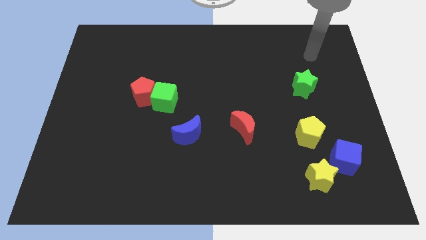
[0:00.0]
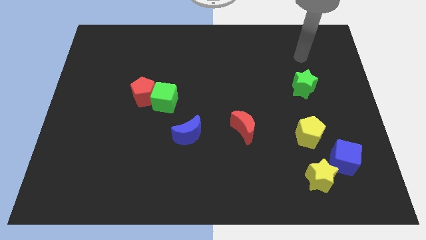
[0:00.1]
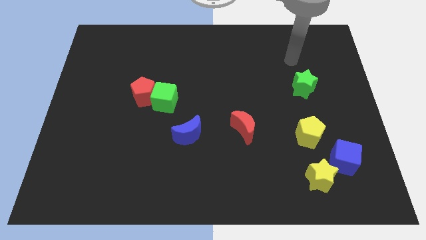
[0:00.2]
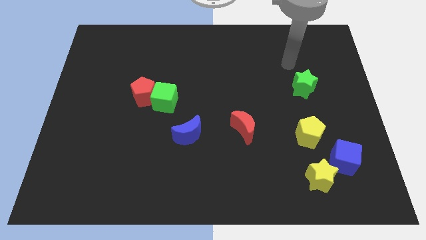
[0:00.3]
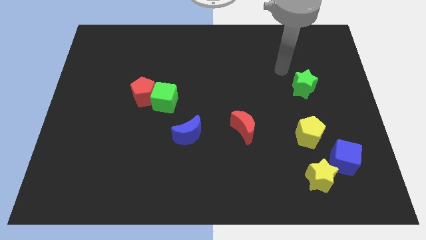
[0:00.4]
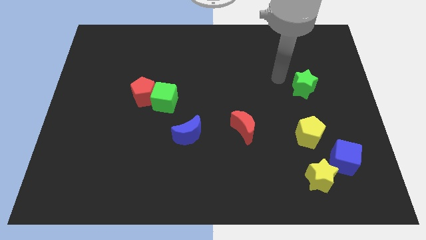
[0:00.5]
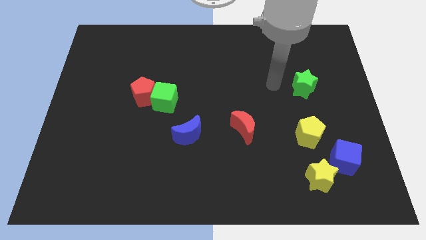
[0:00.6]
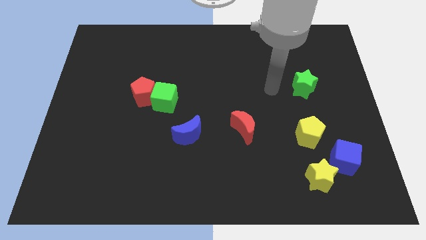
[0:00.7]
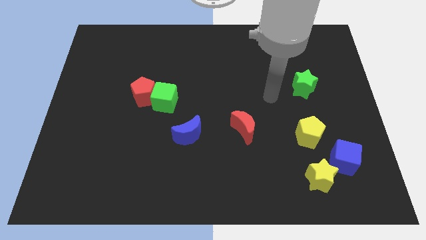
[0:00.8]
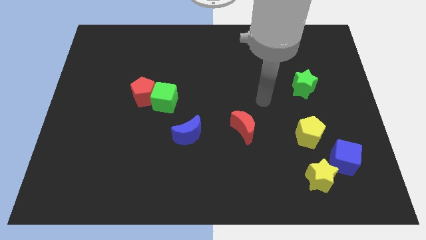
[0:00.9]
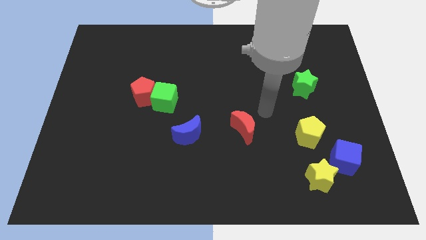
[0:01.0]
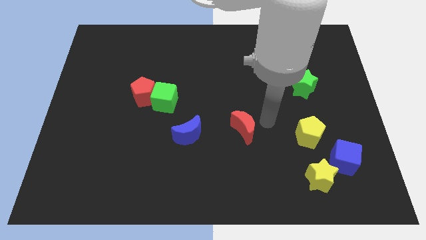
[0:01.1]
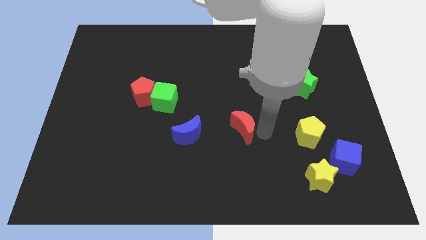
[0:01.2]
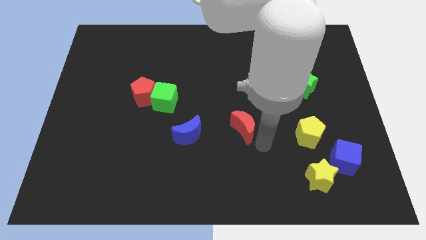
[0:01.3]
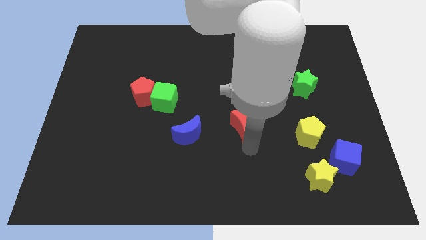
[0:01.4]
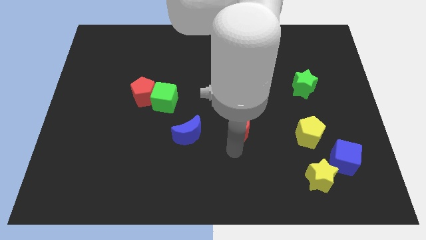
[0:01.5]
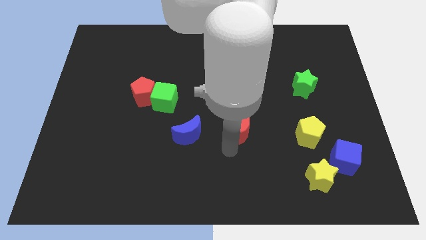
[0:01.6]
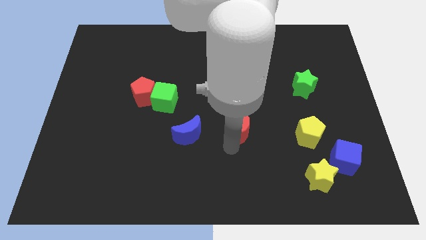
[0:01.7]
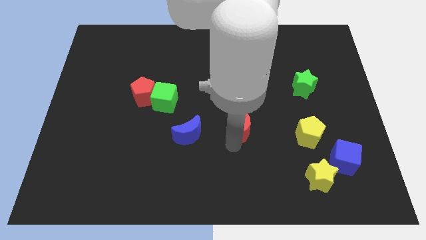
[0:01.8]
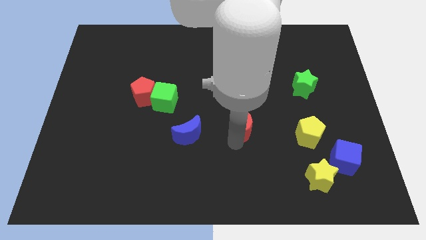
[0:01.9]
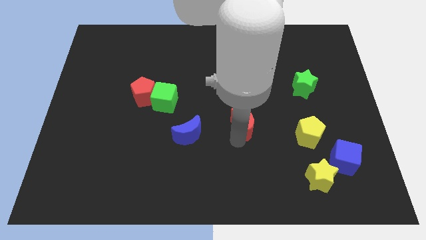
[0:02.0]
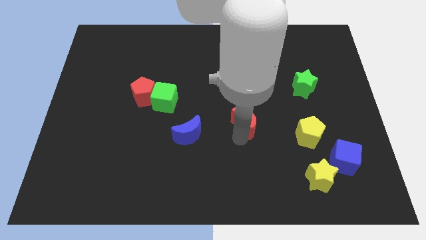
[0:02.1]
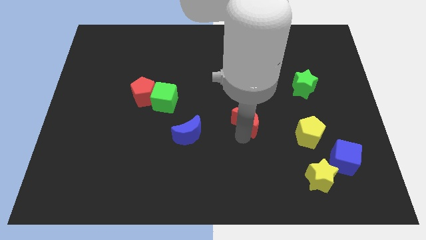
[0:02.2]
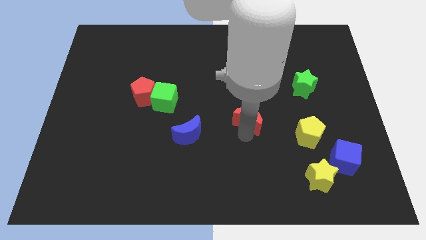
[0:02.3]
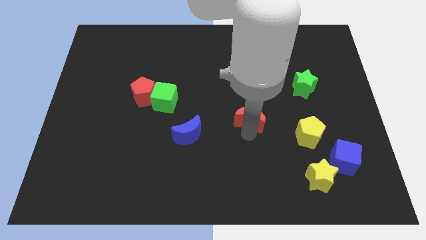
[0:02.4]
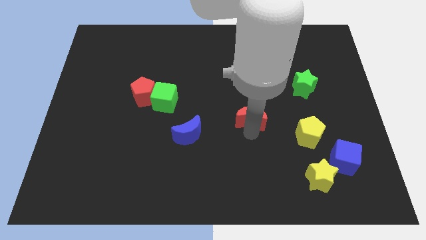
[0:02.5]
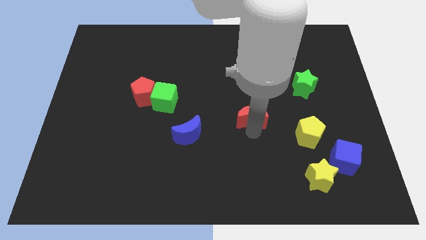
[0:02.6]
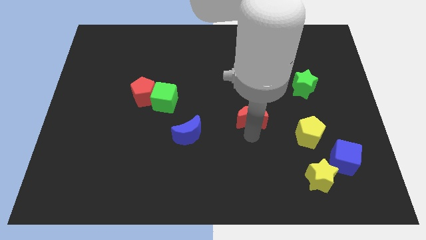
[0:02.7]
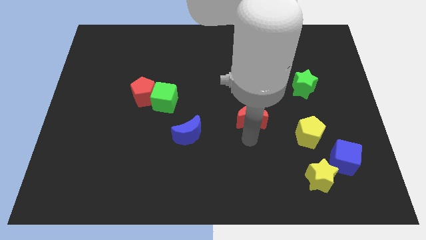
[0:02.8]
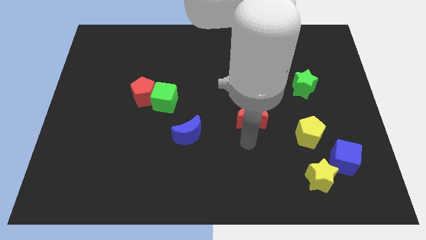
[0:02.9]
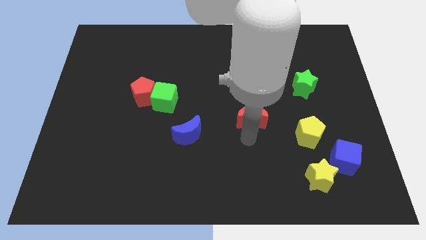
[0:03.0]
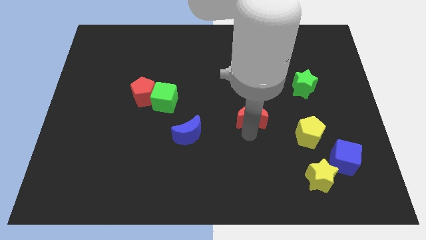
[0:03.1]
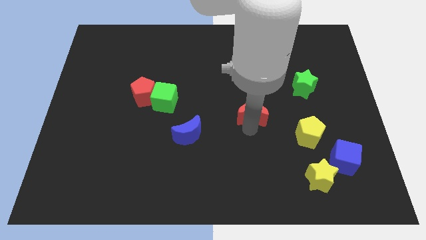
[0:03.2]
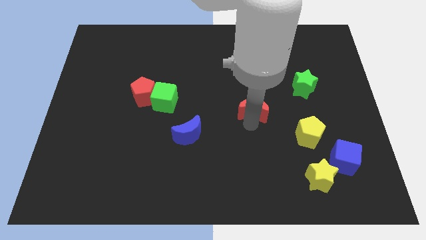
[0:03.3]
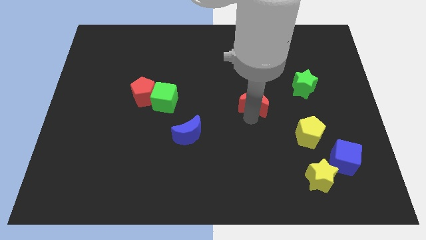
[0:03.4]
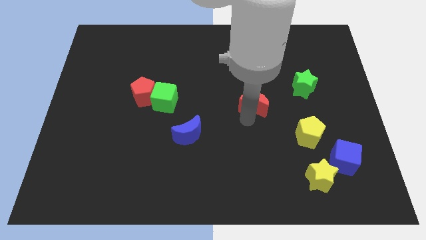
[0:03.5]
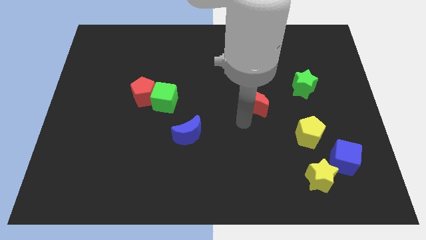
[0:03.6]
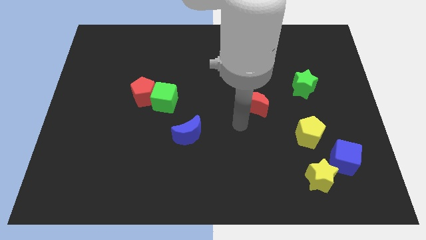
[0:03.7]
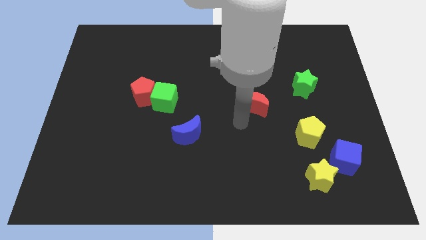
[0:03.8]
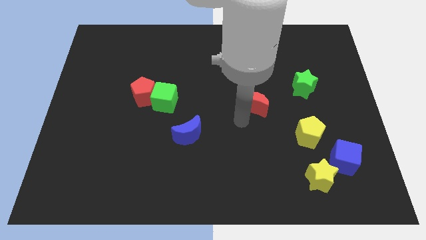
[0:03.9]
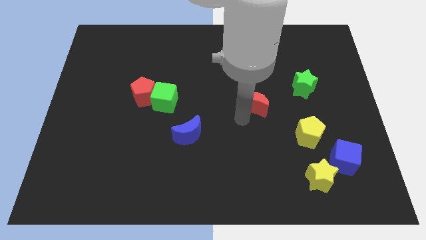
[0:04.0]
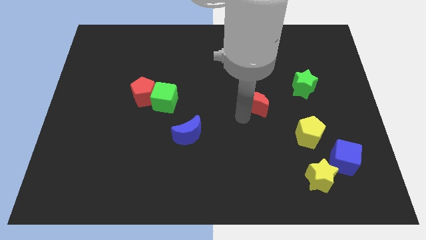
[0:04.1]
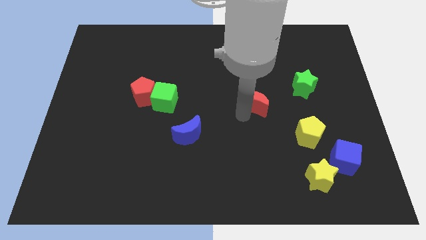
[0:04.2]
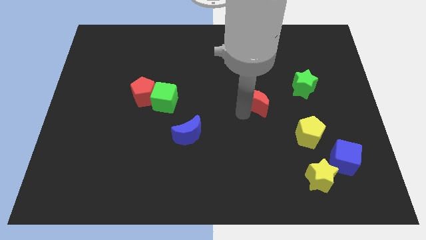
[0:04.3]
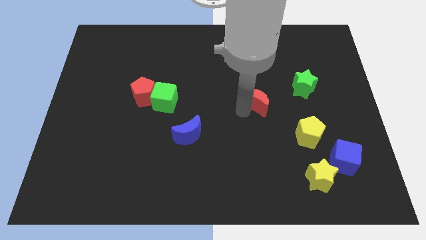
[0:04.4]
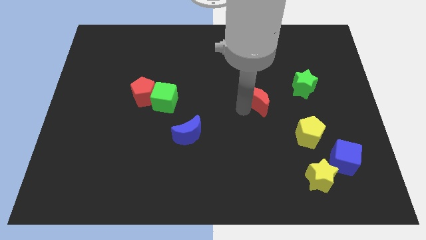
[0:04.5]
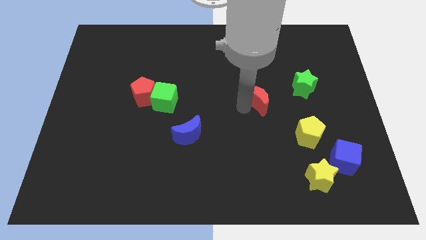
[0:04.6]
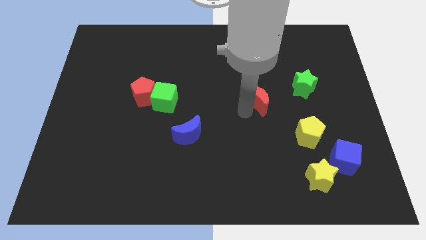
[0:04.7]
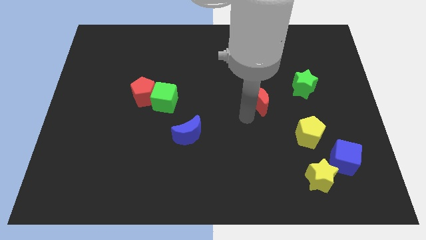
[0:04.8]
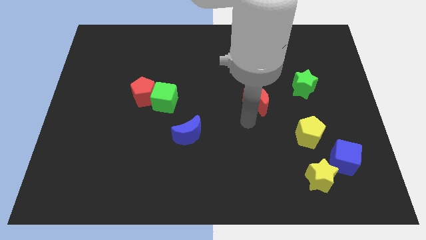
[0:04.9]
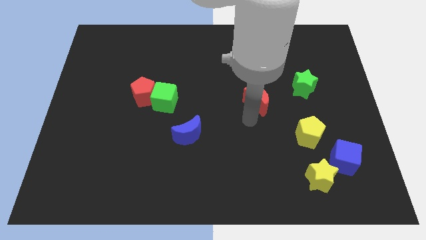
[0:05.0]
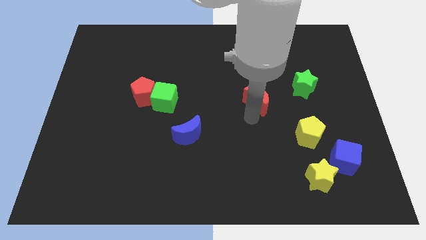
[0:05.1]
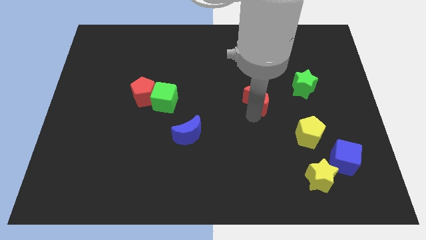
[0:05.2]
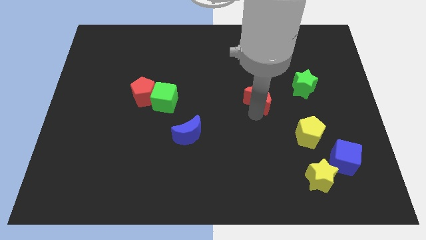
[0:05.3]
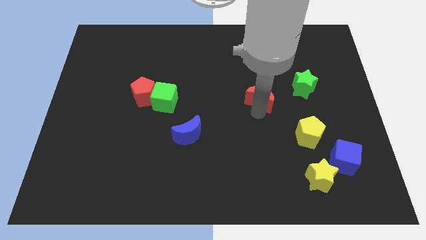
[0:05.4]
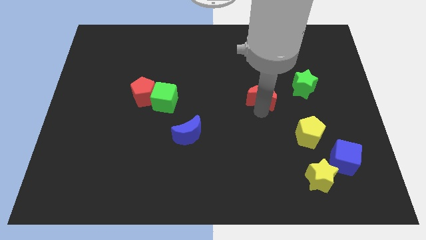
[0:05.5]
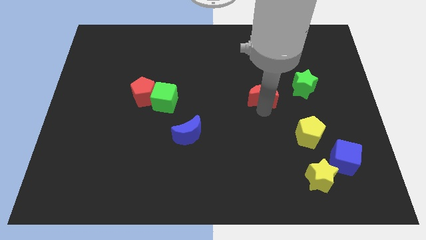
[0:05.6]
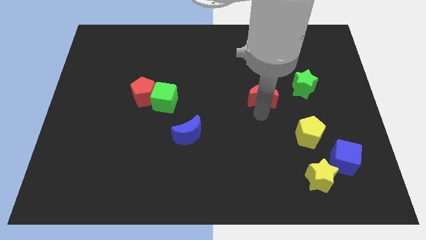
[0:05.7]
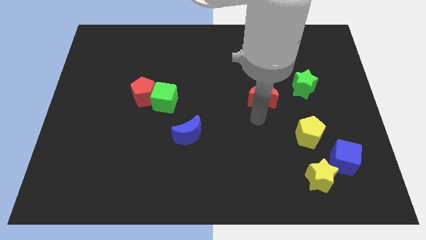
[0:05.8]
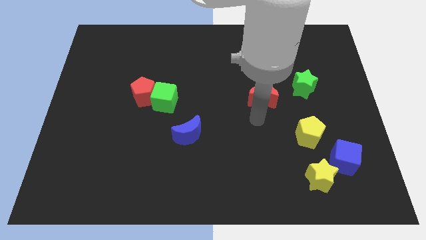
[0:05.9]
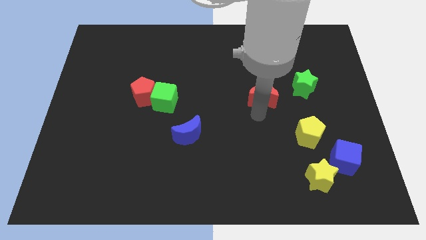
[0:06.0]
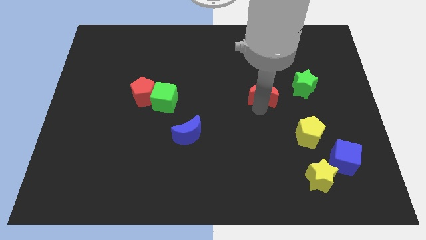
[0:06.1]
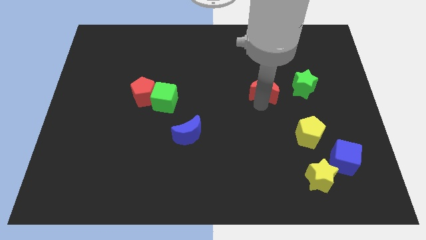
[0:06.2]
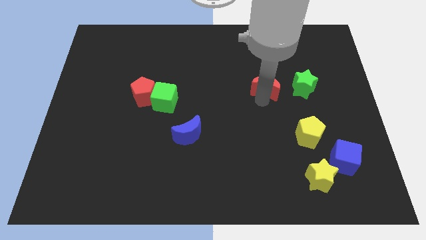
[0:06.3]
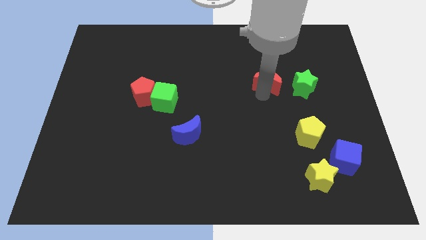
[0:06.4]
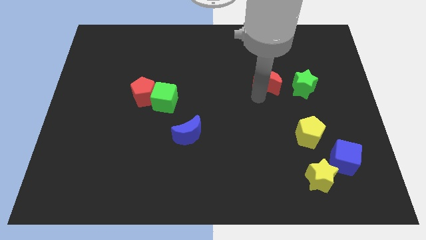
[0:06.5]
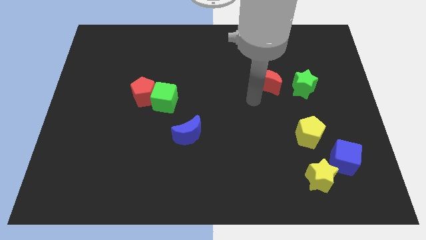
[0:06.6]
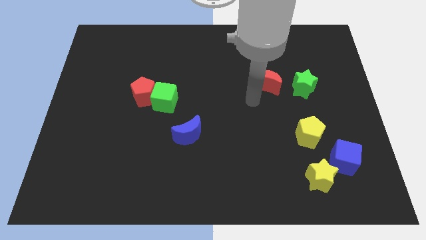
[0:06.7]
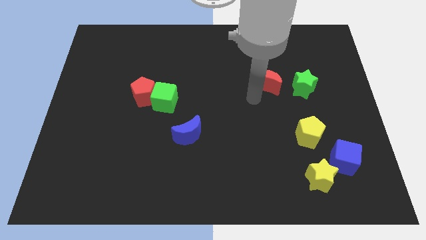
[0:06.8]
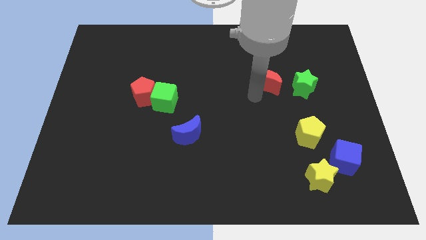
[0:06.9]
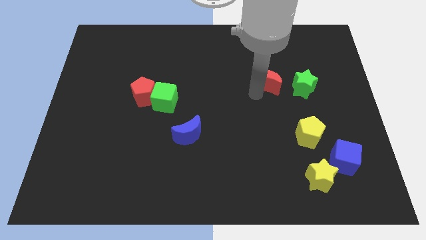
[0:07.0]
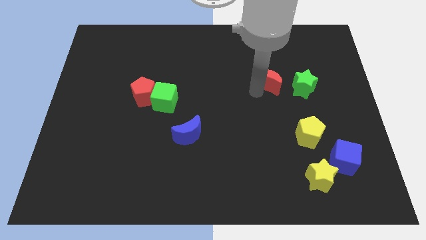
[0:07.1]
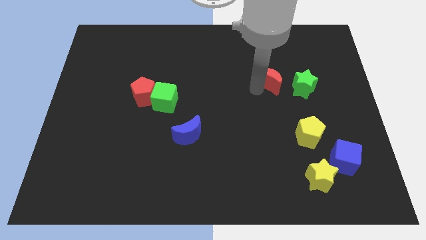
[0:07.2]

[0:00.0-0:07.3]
move the red moon to the top left of the green star

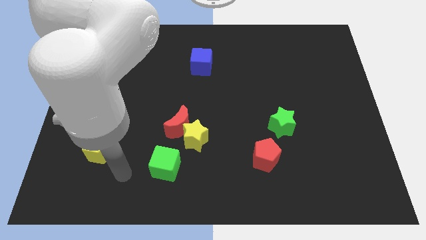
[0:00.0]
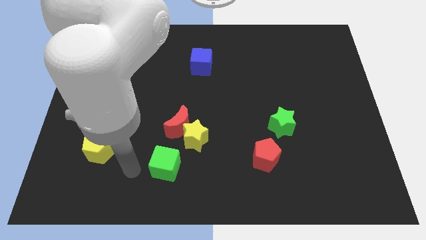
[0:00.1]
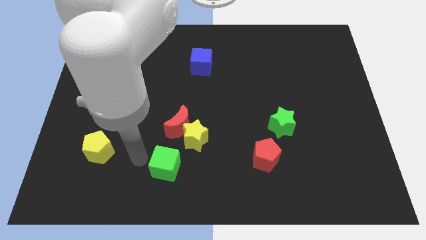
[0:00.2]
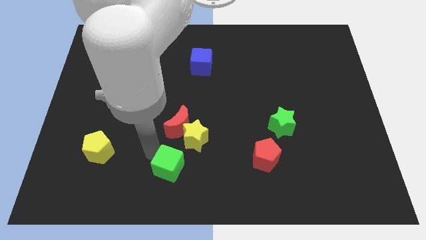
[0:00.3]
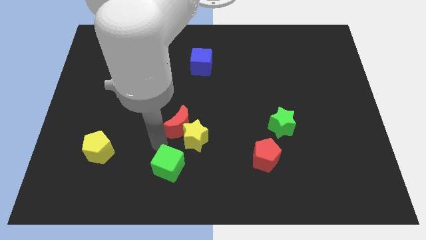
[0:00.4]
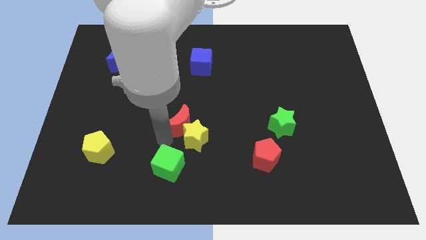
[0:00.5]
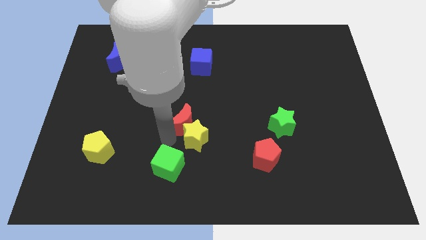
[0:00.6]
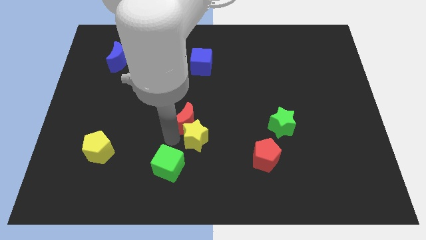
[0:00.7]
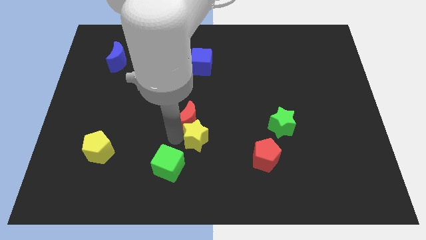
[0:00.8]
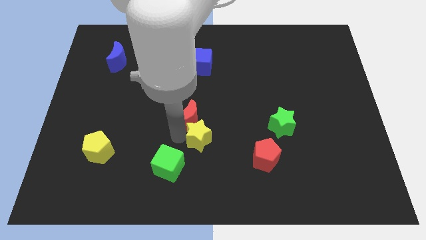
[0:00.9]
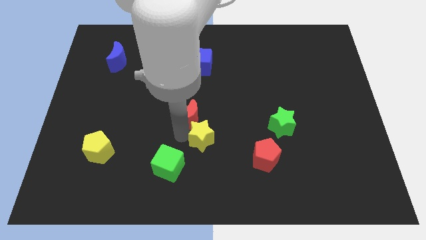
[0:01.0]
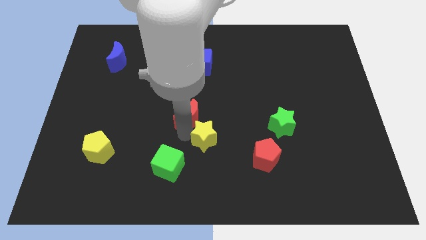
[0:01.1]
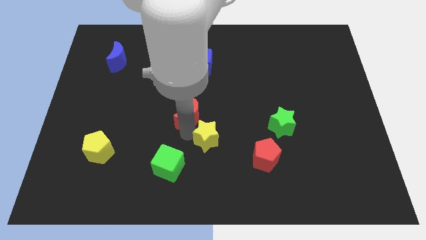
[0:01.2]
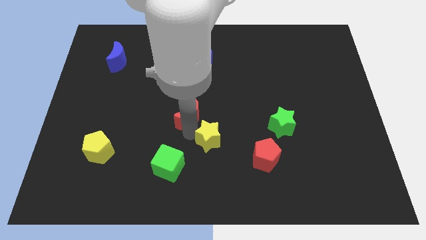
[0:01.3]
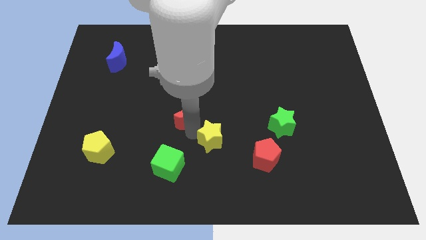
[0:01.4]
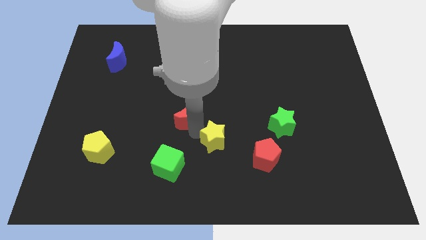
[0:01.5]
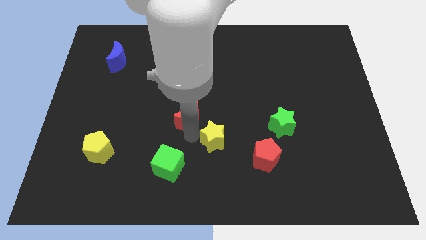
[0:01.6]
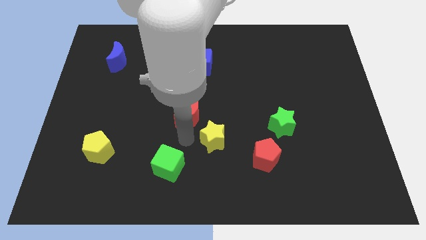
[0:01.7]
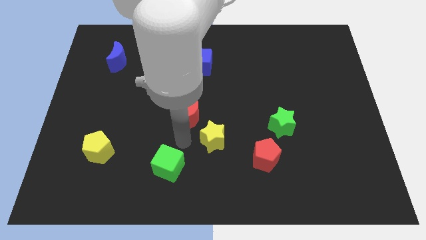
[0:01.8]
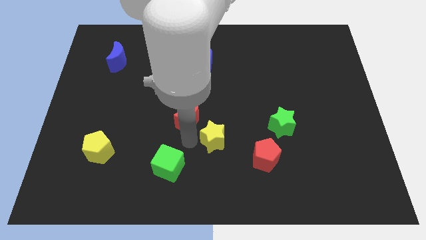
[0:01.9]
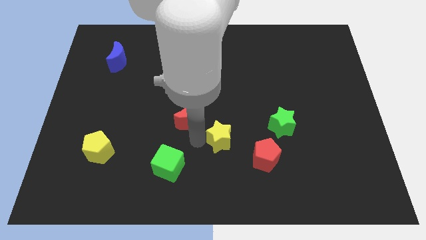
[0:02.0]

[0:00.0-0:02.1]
push the yellow star diagonally up and to the left of the red pentagon
